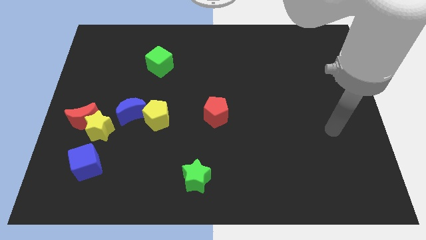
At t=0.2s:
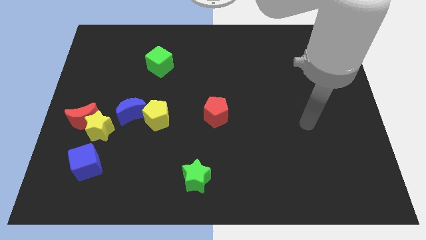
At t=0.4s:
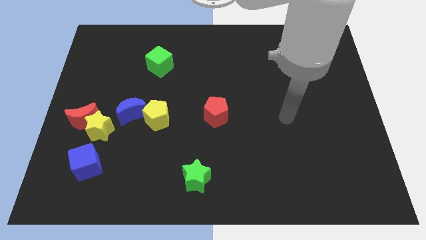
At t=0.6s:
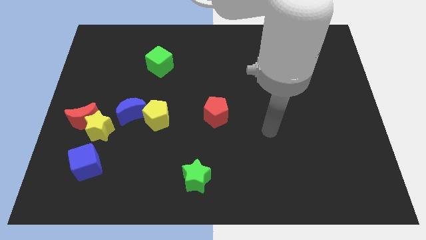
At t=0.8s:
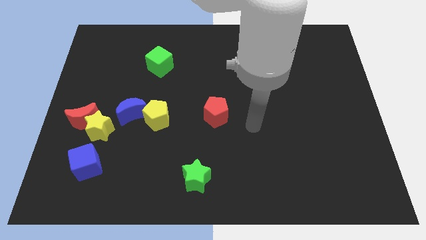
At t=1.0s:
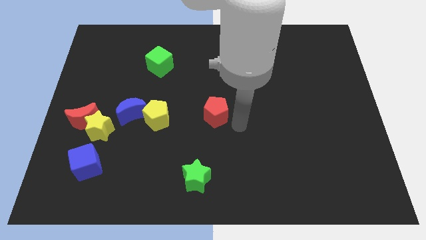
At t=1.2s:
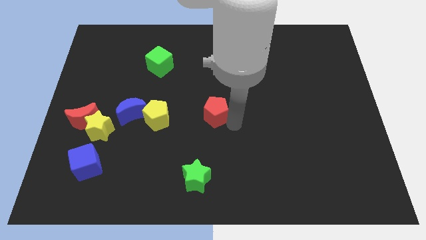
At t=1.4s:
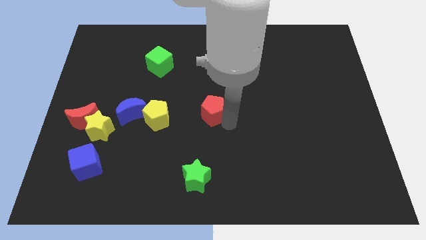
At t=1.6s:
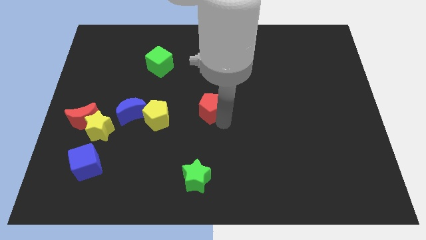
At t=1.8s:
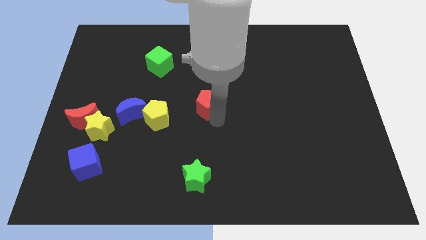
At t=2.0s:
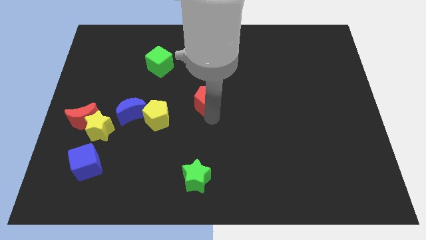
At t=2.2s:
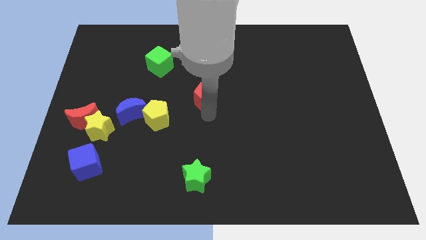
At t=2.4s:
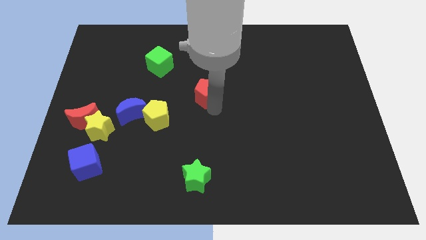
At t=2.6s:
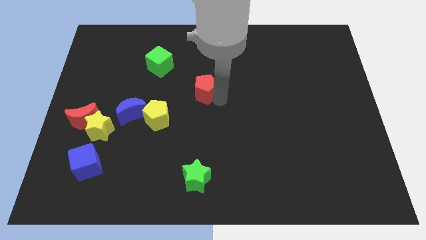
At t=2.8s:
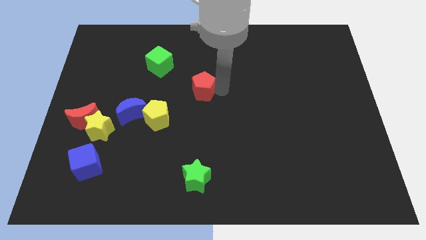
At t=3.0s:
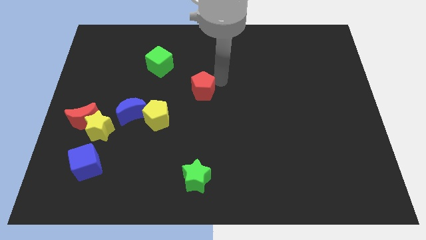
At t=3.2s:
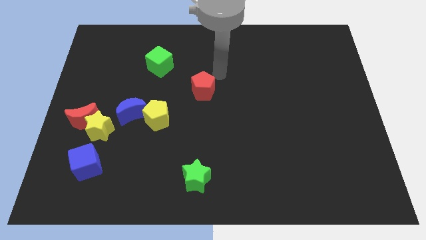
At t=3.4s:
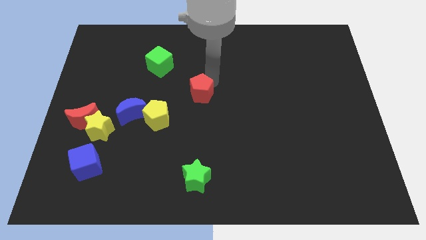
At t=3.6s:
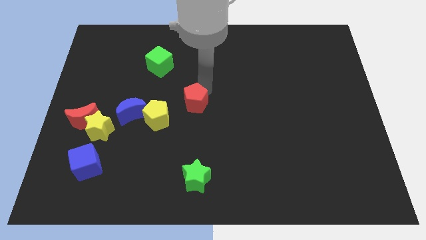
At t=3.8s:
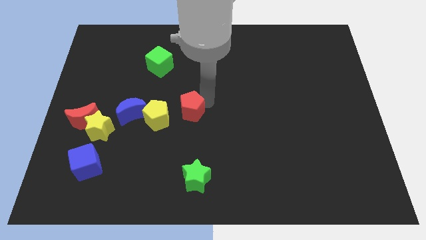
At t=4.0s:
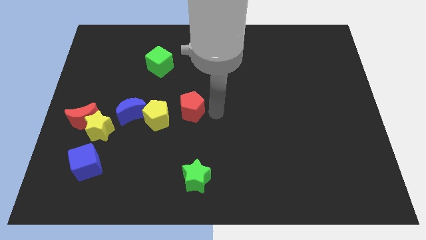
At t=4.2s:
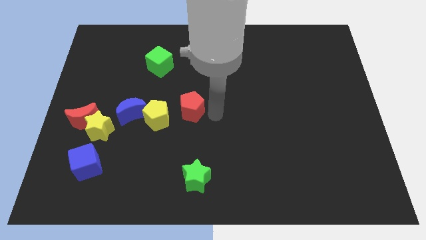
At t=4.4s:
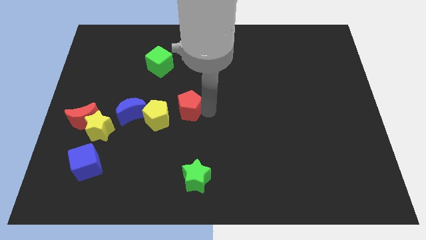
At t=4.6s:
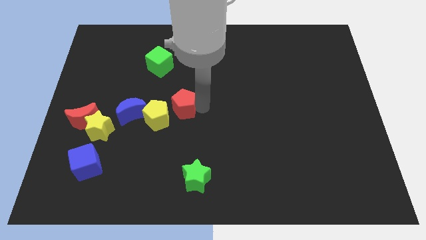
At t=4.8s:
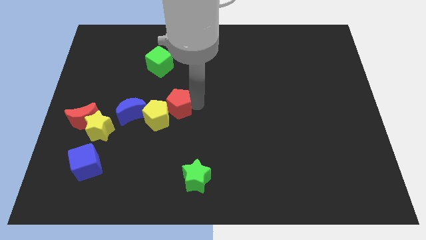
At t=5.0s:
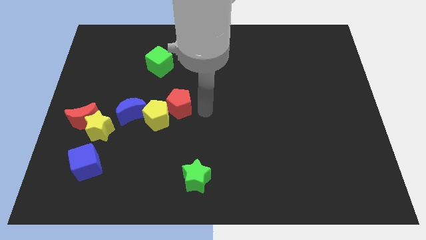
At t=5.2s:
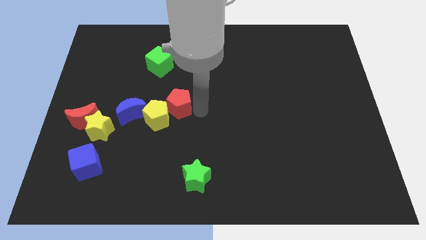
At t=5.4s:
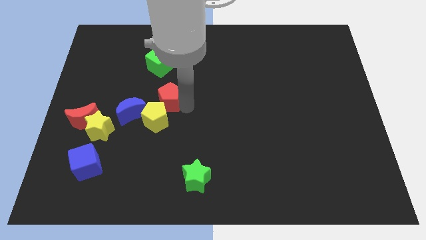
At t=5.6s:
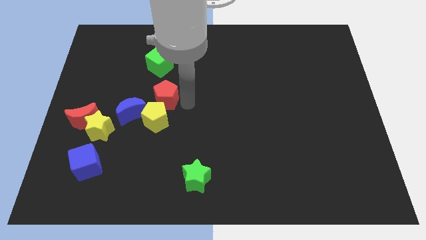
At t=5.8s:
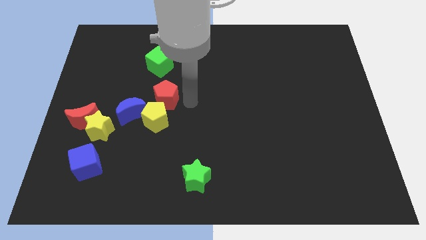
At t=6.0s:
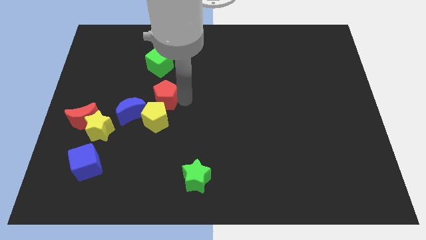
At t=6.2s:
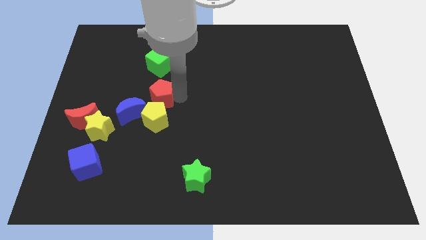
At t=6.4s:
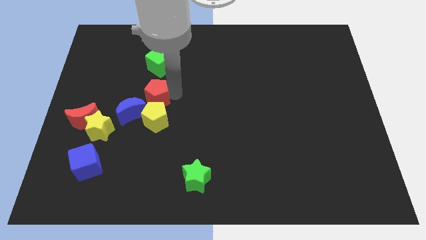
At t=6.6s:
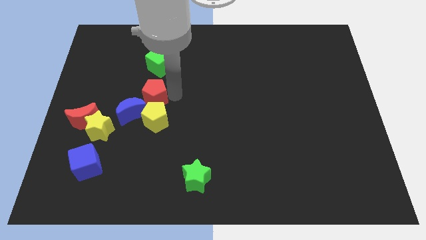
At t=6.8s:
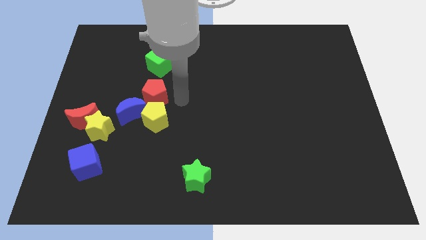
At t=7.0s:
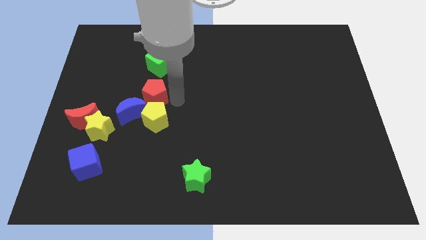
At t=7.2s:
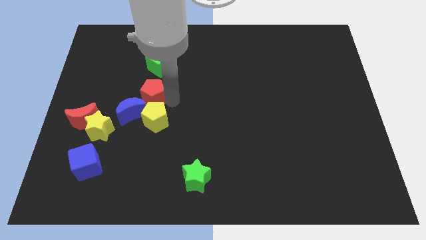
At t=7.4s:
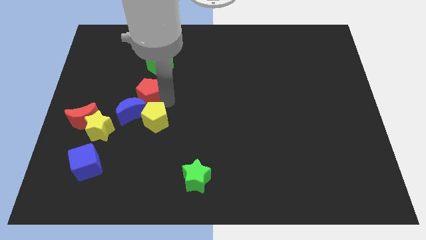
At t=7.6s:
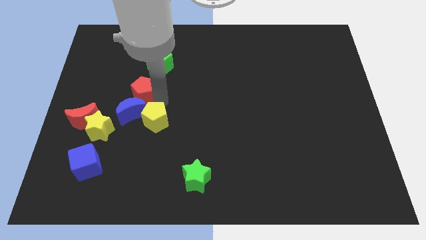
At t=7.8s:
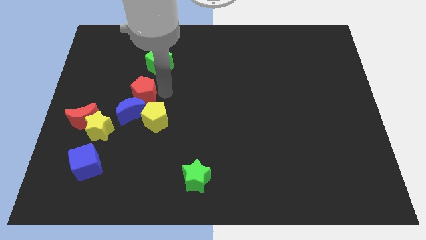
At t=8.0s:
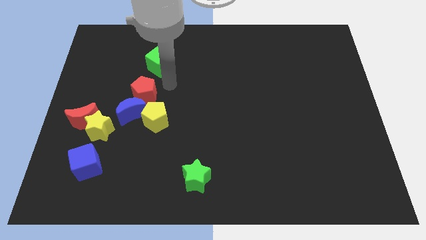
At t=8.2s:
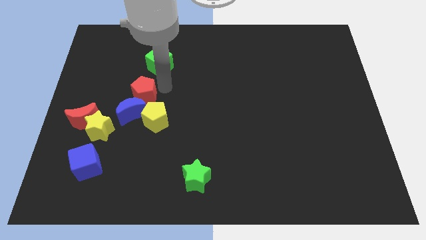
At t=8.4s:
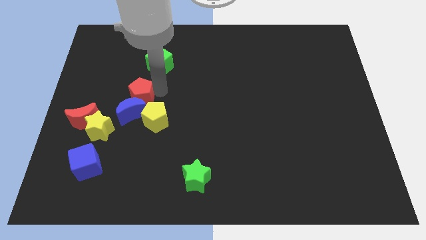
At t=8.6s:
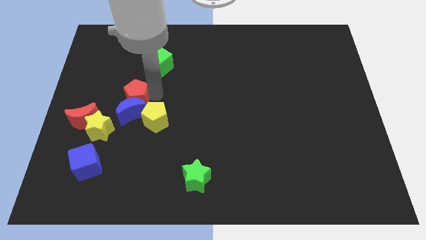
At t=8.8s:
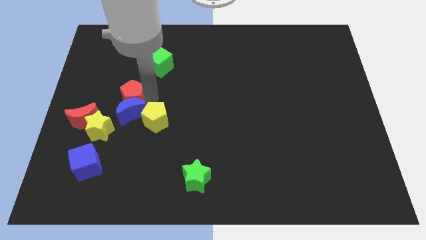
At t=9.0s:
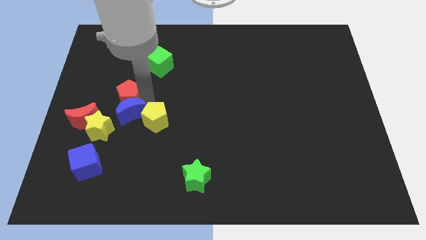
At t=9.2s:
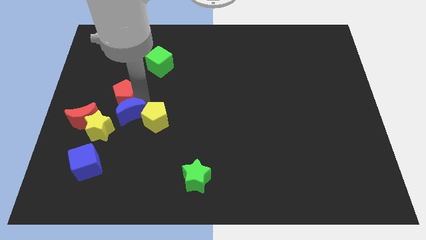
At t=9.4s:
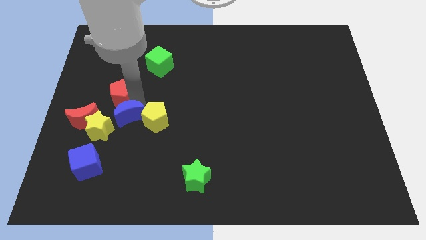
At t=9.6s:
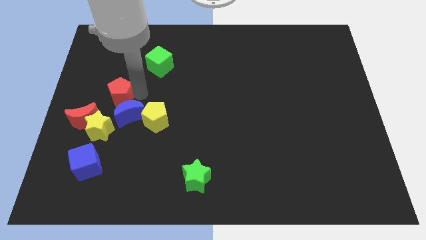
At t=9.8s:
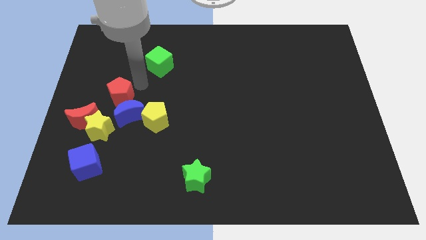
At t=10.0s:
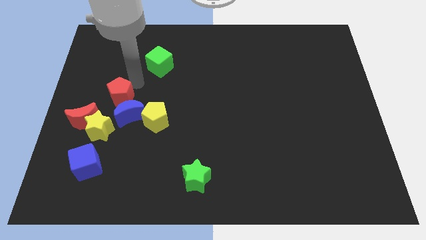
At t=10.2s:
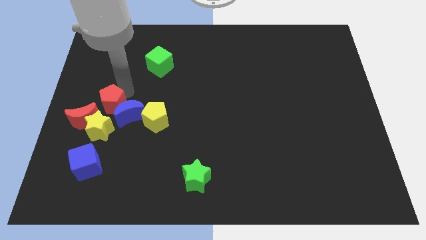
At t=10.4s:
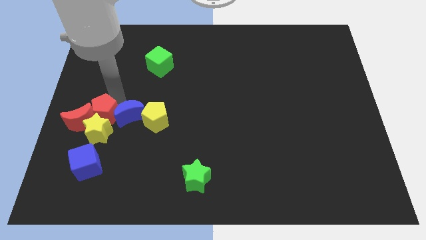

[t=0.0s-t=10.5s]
move the red pentagon towards the red moon
